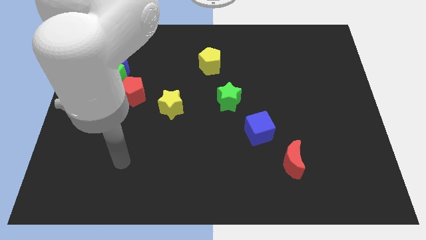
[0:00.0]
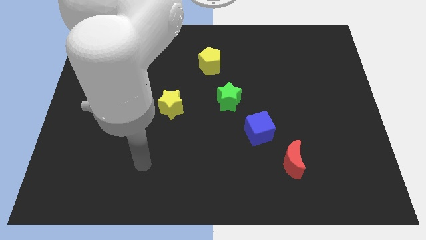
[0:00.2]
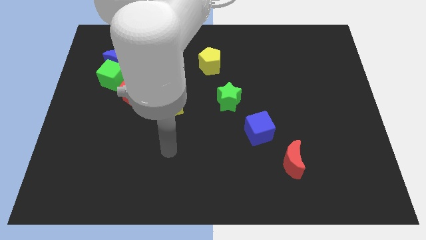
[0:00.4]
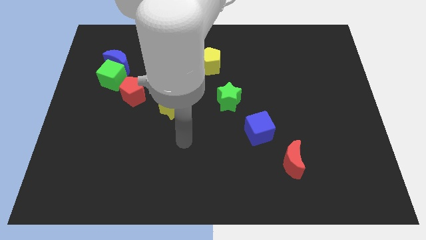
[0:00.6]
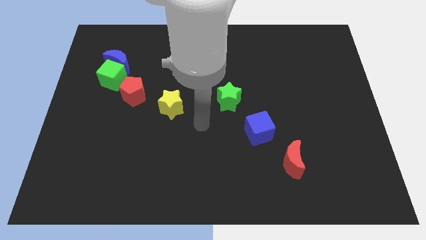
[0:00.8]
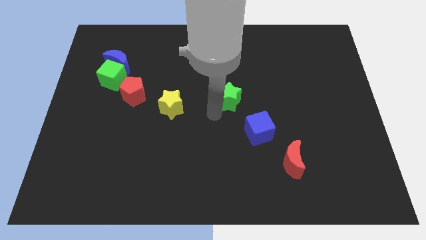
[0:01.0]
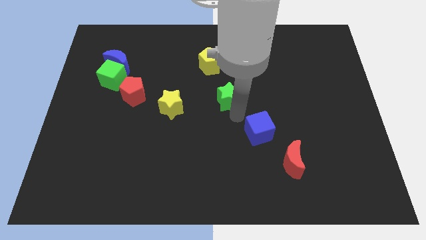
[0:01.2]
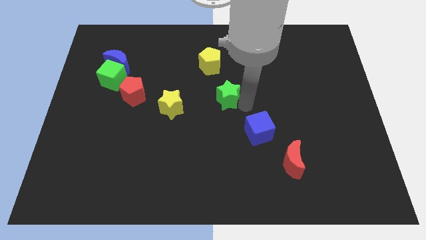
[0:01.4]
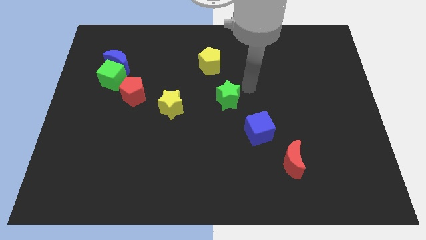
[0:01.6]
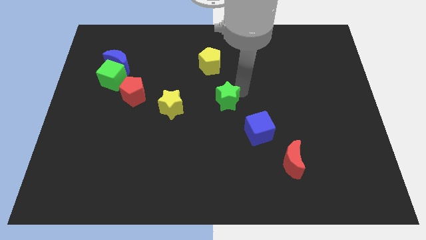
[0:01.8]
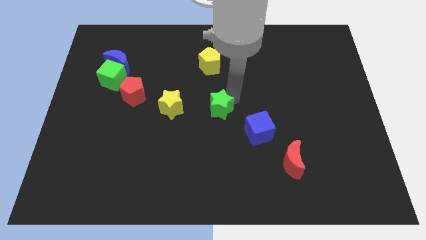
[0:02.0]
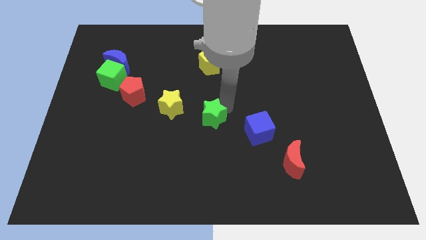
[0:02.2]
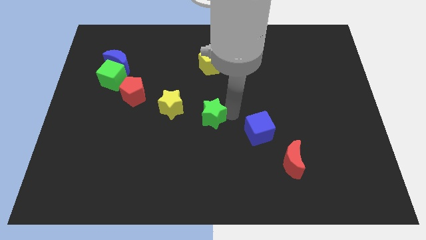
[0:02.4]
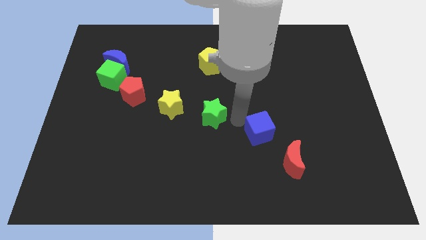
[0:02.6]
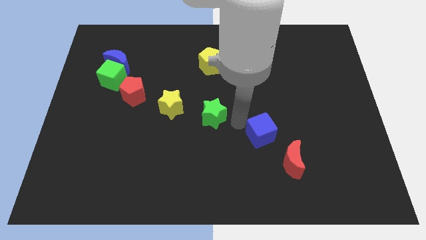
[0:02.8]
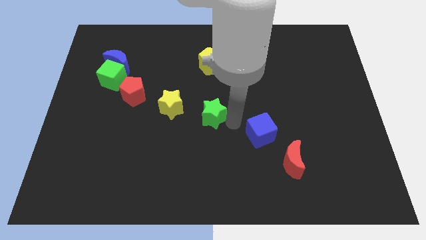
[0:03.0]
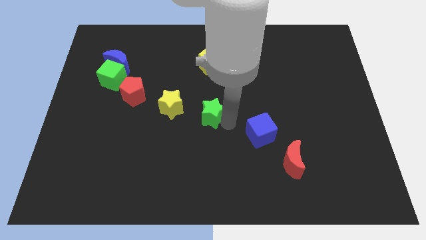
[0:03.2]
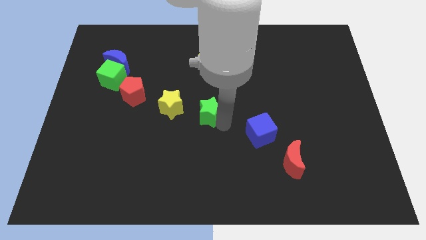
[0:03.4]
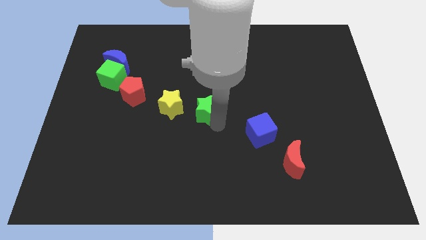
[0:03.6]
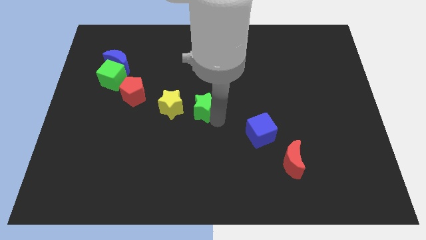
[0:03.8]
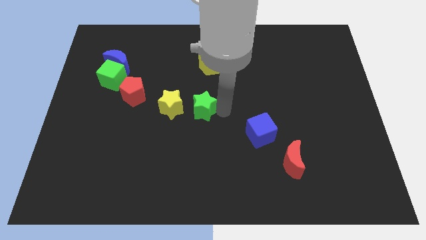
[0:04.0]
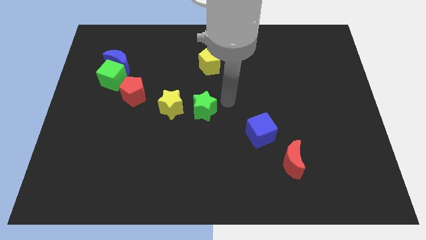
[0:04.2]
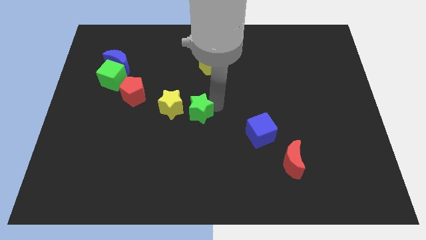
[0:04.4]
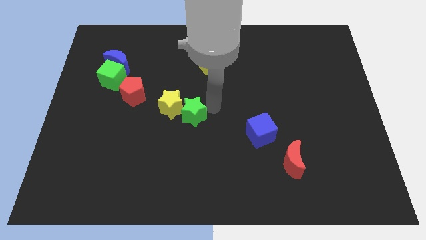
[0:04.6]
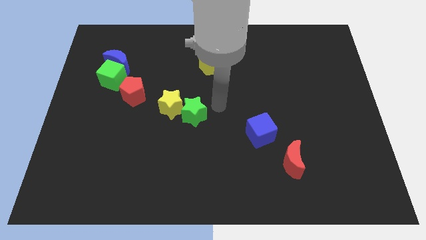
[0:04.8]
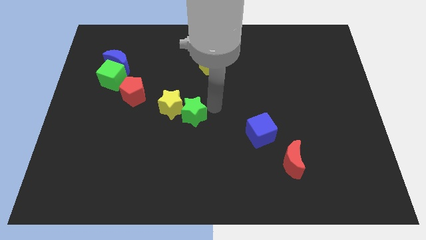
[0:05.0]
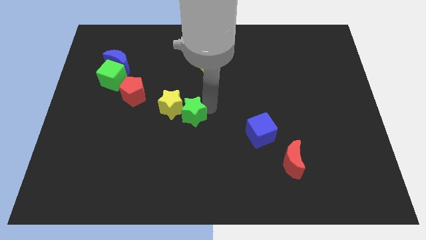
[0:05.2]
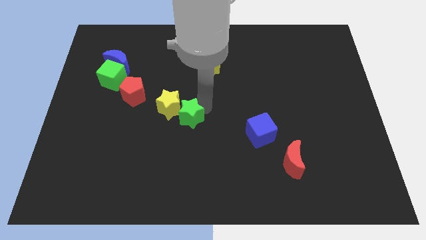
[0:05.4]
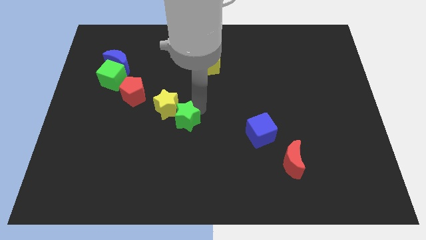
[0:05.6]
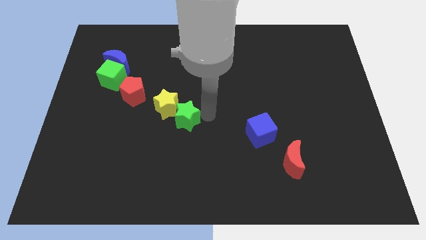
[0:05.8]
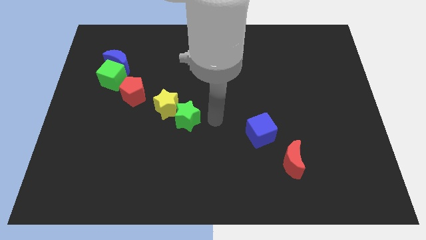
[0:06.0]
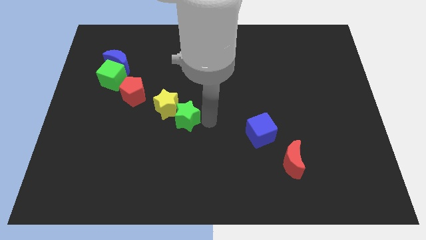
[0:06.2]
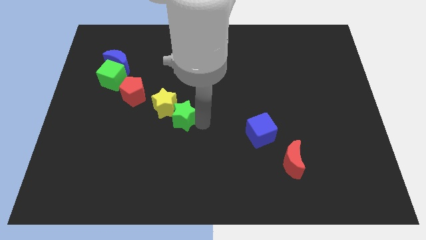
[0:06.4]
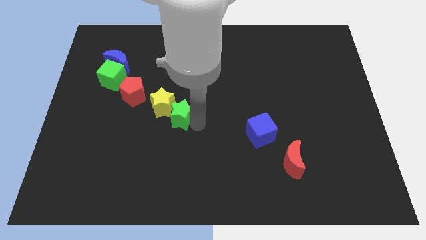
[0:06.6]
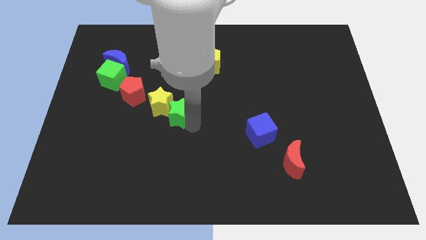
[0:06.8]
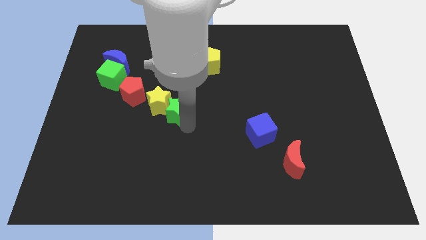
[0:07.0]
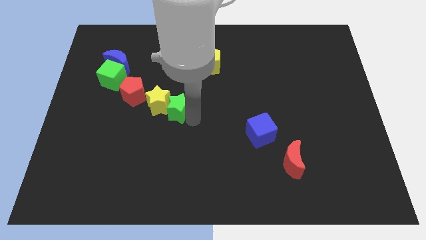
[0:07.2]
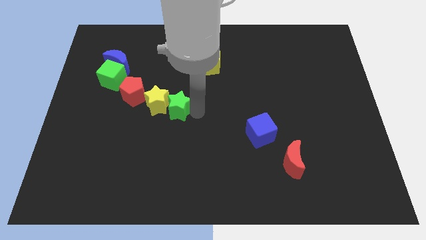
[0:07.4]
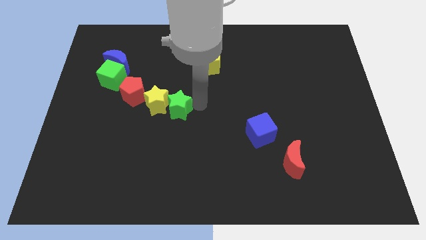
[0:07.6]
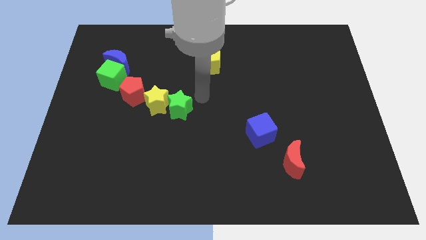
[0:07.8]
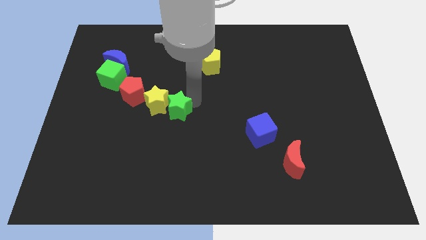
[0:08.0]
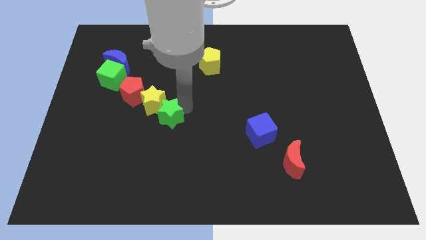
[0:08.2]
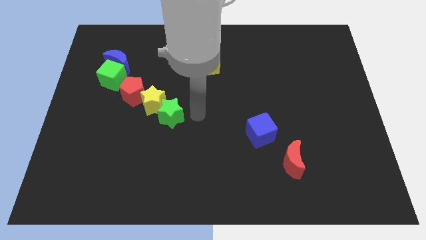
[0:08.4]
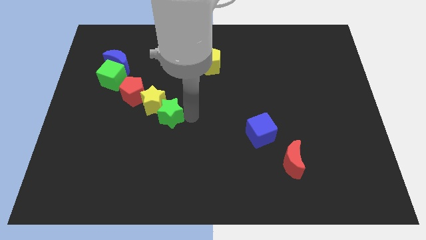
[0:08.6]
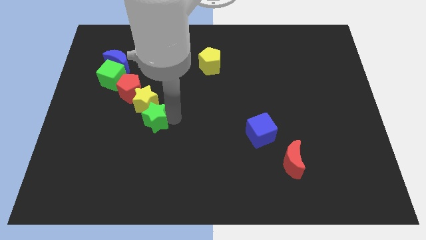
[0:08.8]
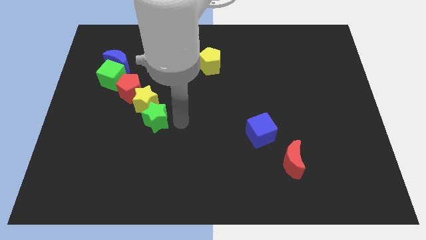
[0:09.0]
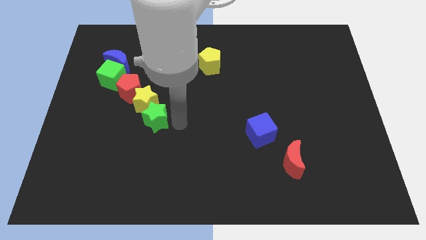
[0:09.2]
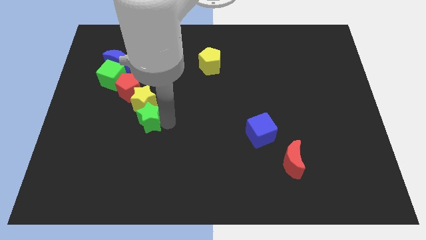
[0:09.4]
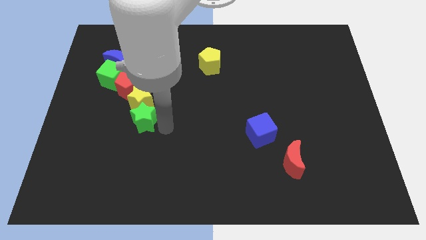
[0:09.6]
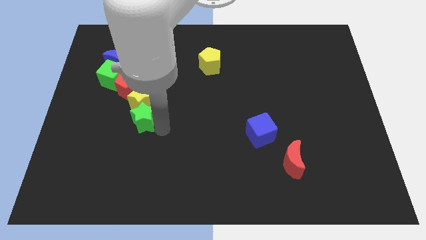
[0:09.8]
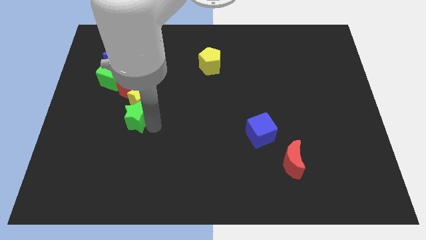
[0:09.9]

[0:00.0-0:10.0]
move the green star to the left

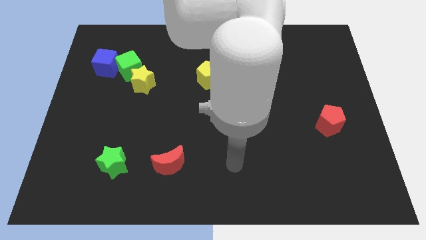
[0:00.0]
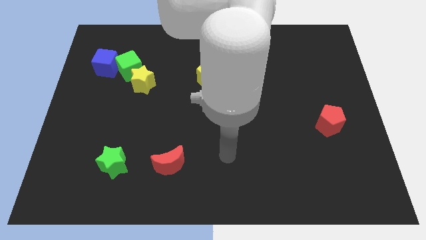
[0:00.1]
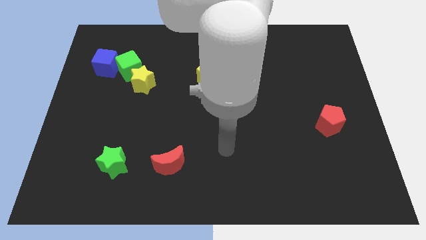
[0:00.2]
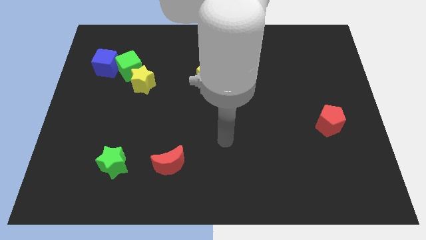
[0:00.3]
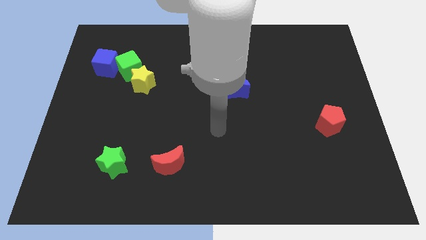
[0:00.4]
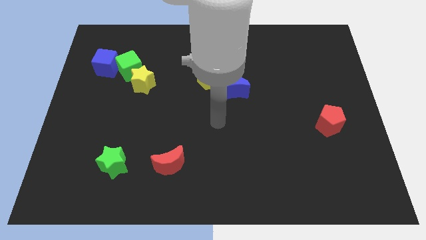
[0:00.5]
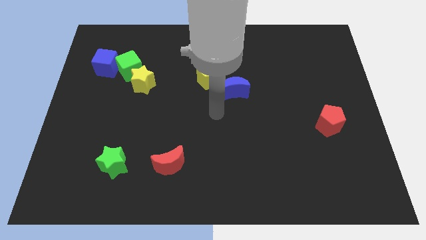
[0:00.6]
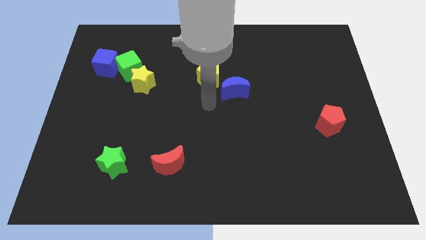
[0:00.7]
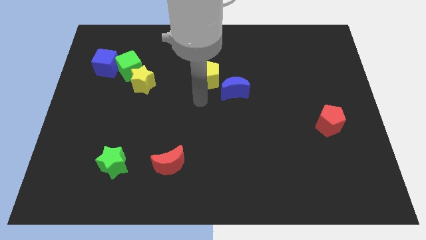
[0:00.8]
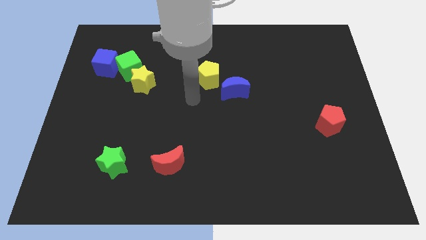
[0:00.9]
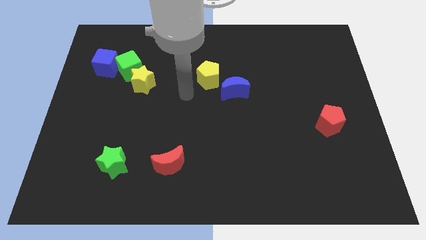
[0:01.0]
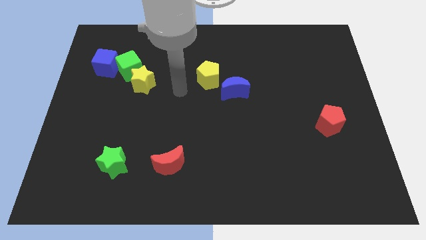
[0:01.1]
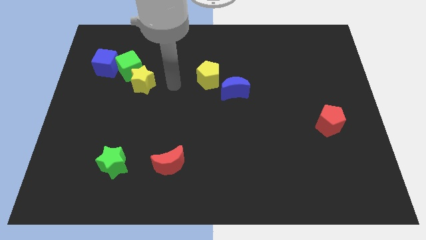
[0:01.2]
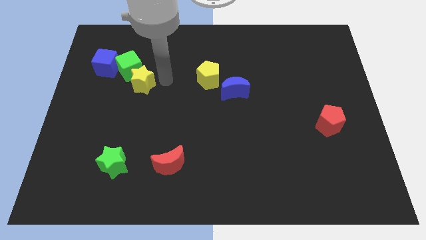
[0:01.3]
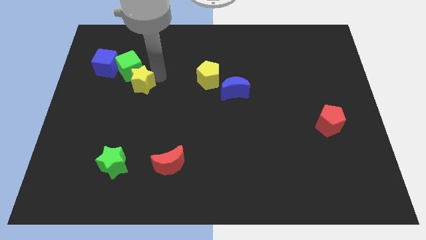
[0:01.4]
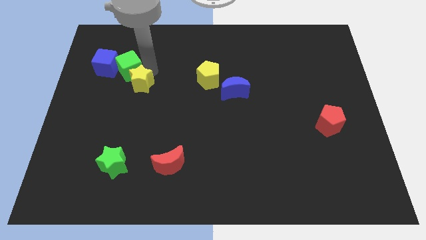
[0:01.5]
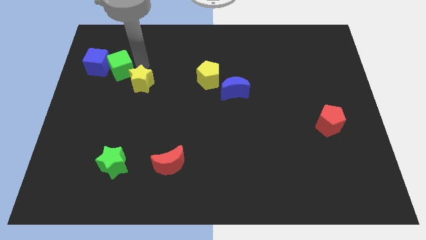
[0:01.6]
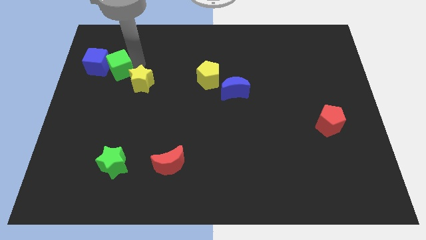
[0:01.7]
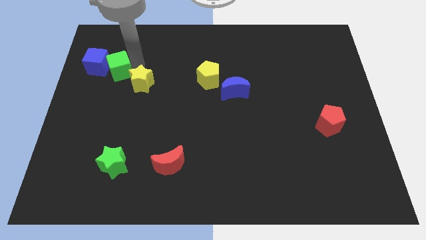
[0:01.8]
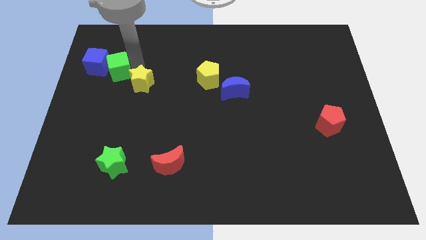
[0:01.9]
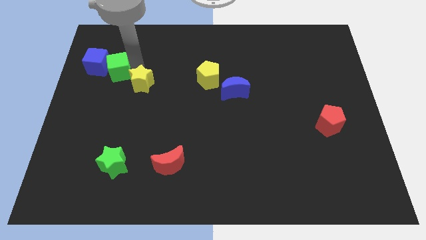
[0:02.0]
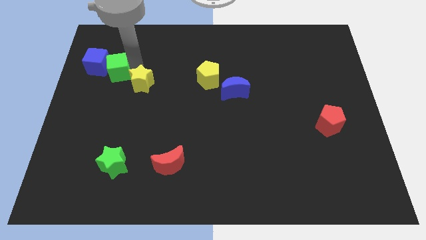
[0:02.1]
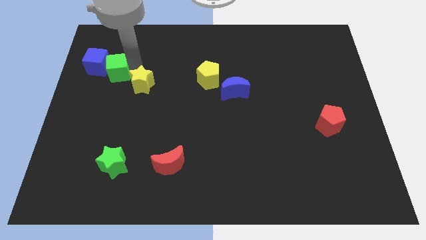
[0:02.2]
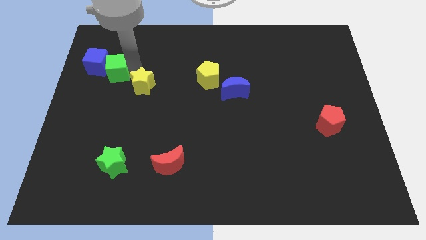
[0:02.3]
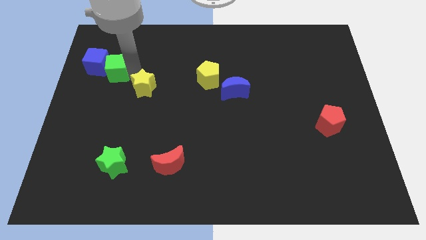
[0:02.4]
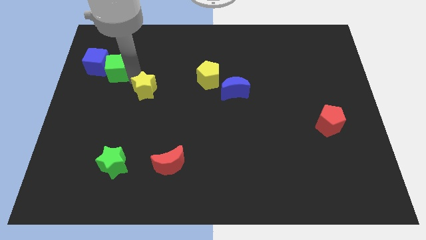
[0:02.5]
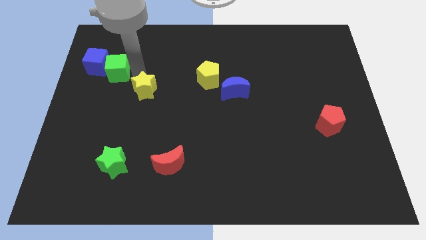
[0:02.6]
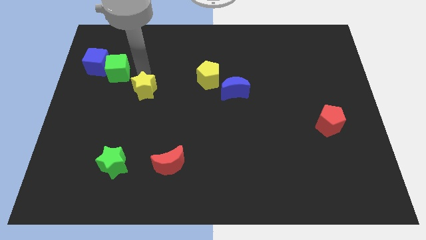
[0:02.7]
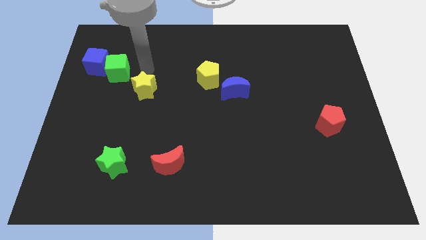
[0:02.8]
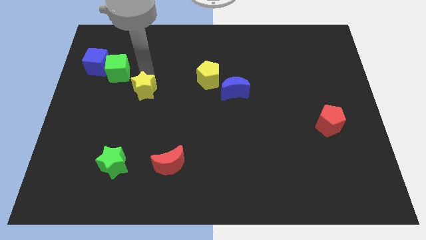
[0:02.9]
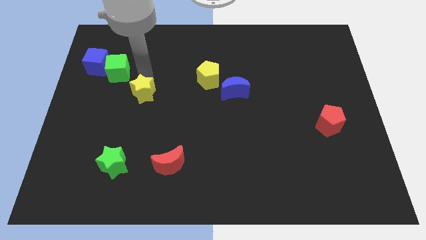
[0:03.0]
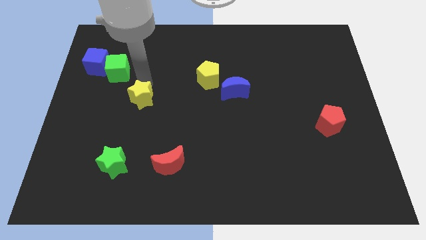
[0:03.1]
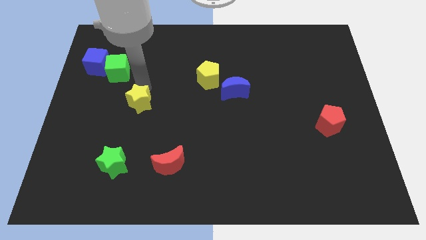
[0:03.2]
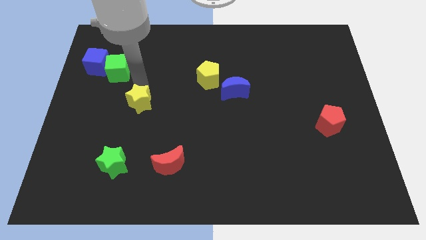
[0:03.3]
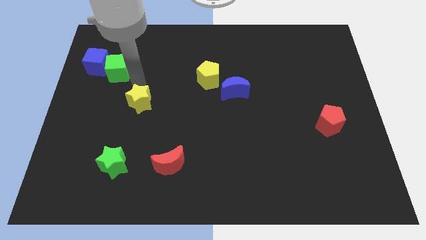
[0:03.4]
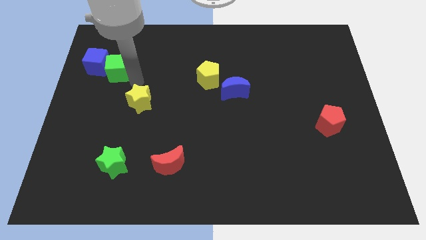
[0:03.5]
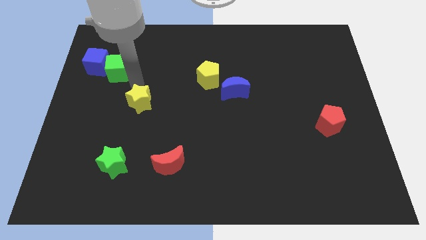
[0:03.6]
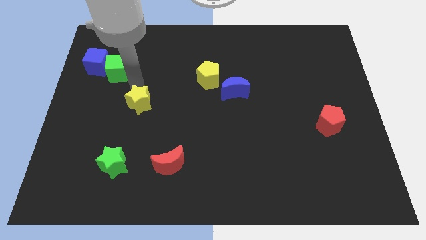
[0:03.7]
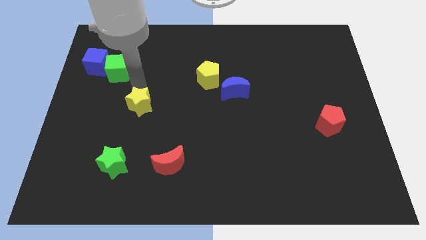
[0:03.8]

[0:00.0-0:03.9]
slide the yellow star down a little bit
